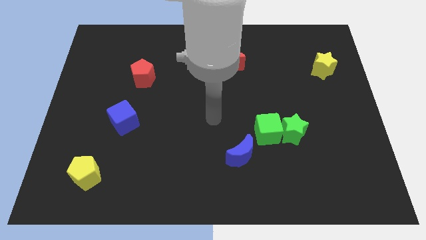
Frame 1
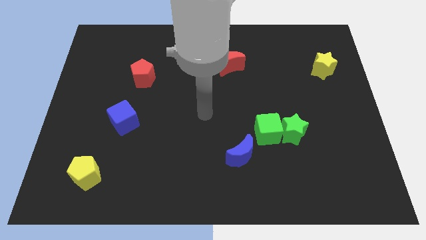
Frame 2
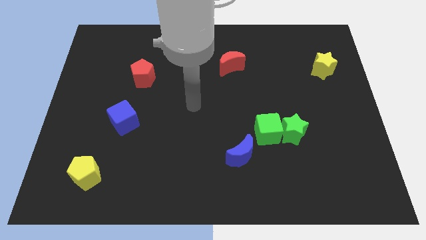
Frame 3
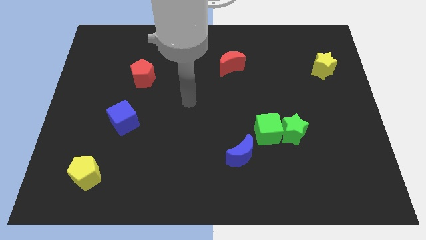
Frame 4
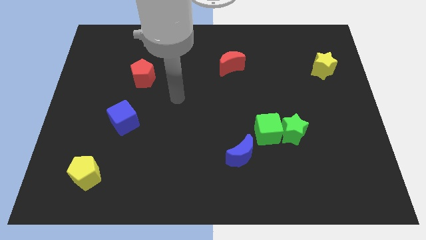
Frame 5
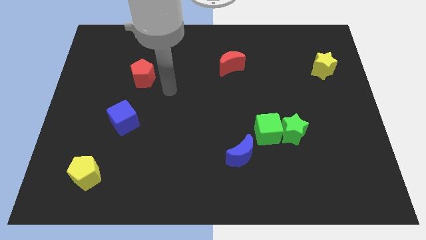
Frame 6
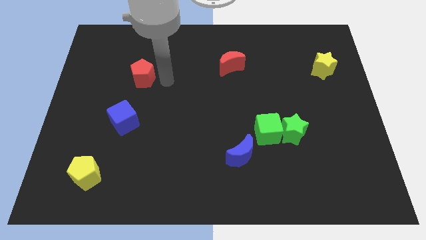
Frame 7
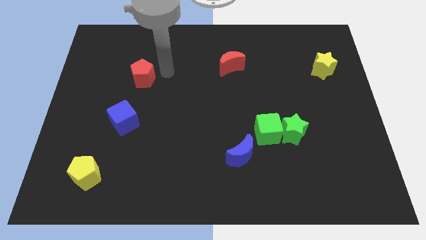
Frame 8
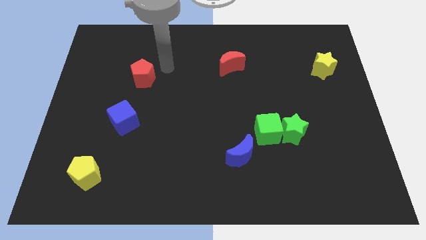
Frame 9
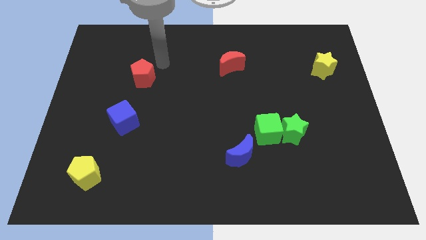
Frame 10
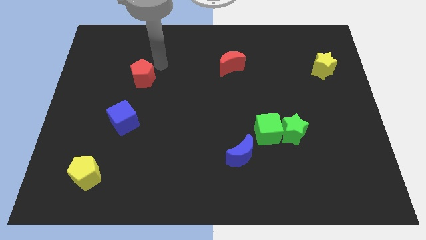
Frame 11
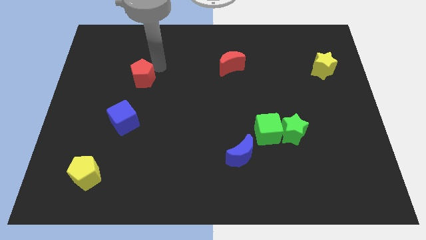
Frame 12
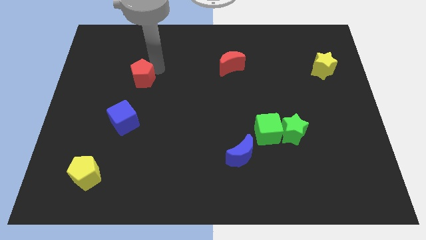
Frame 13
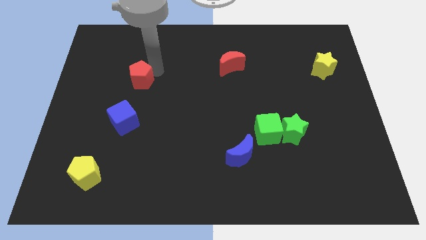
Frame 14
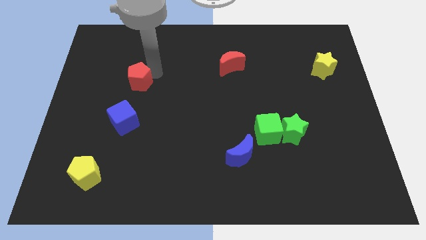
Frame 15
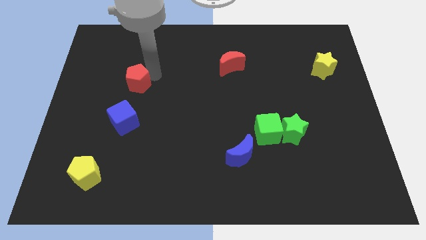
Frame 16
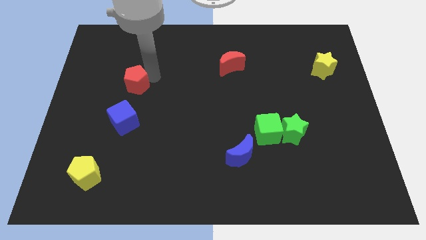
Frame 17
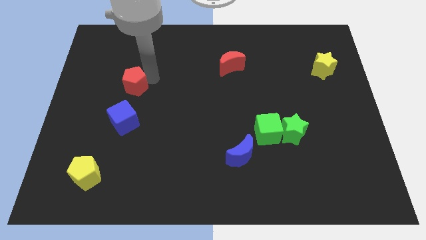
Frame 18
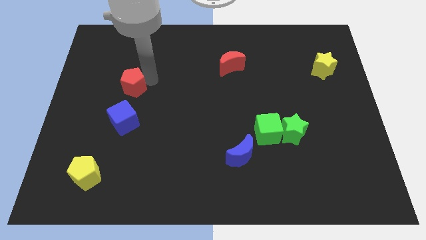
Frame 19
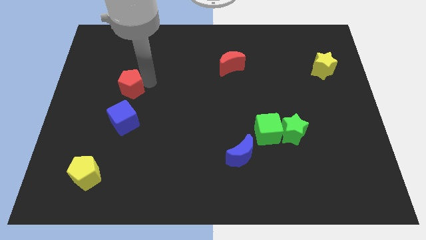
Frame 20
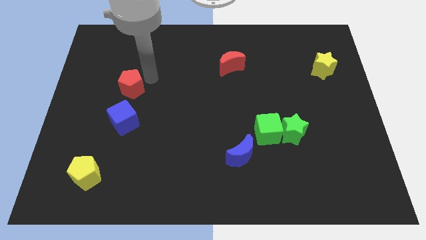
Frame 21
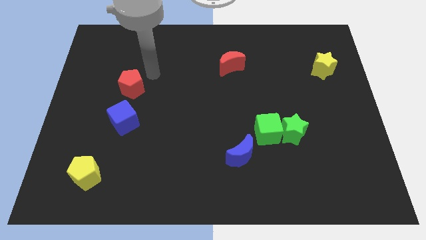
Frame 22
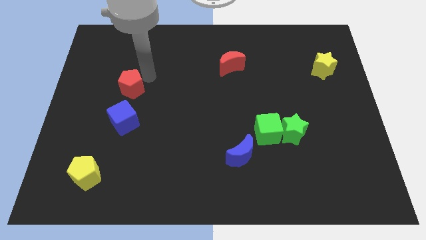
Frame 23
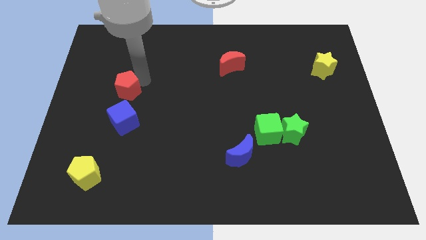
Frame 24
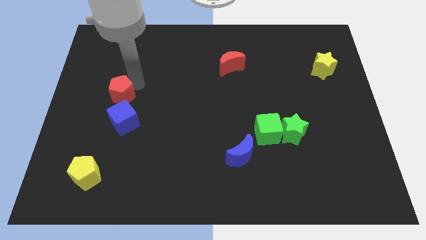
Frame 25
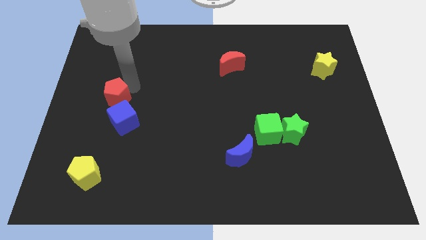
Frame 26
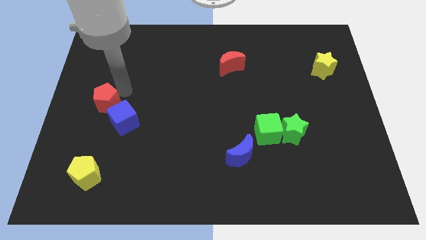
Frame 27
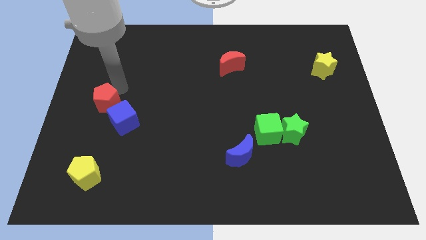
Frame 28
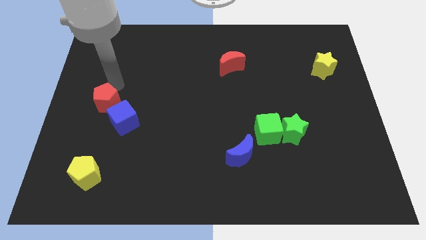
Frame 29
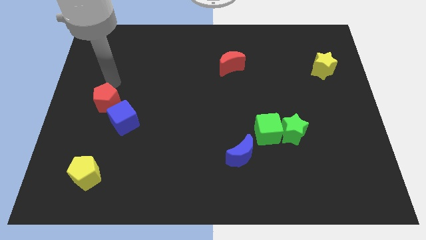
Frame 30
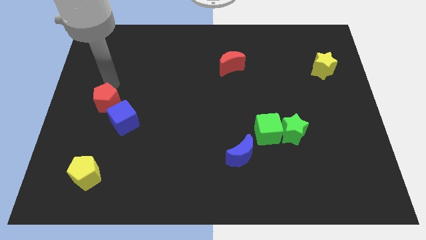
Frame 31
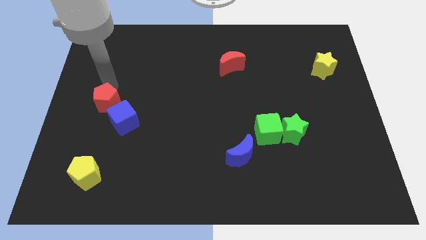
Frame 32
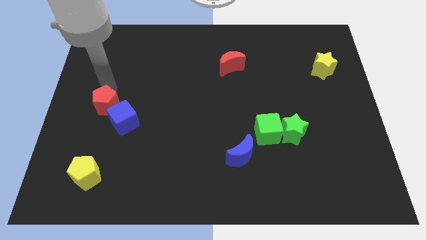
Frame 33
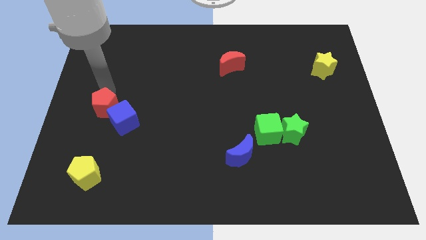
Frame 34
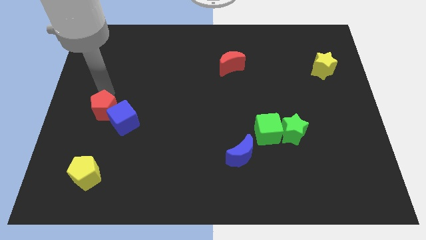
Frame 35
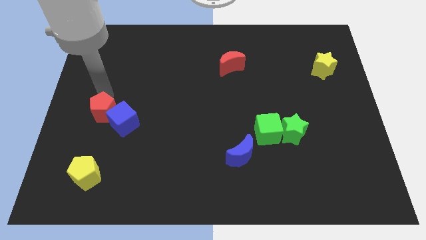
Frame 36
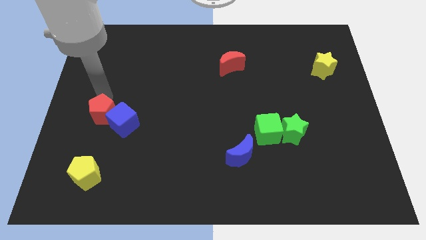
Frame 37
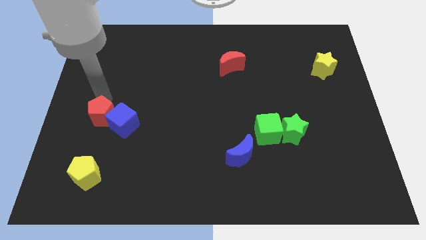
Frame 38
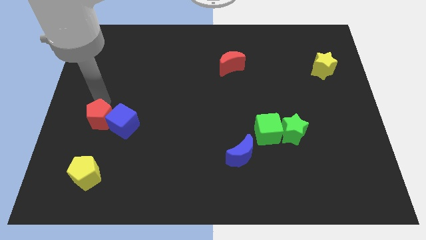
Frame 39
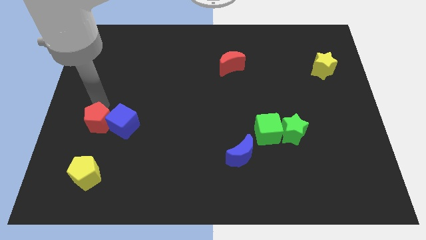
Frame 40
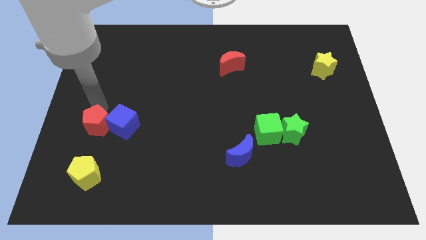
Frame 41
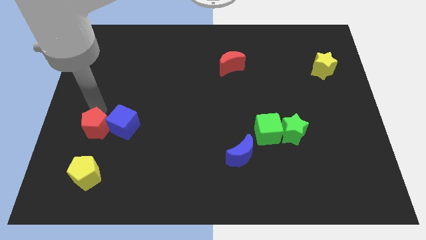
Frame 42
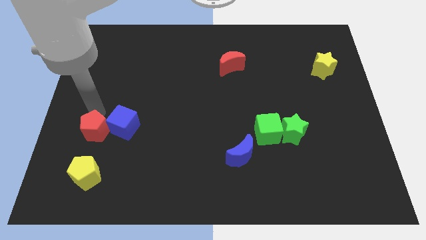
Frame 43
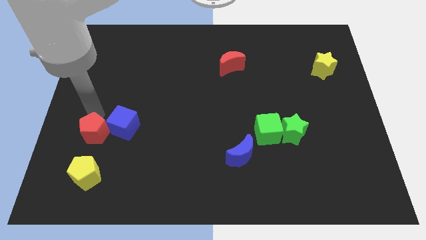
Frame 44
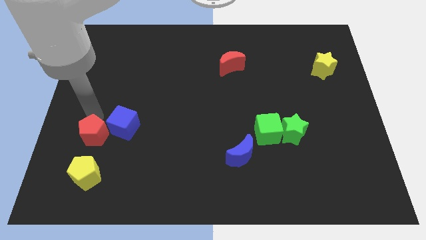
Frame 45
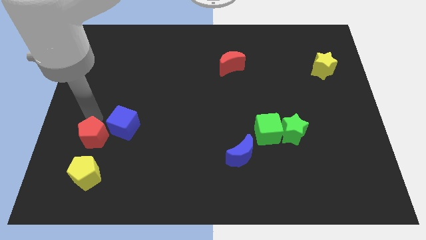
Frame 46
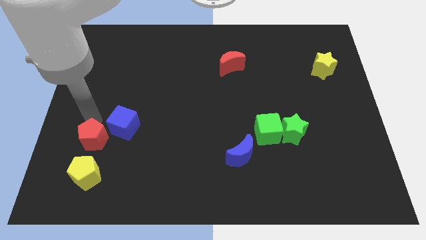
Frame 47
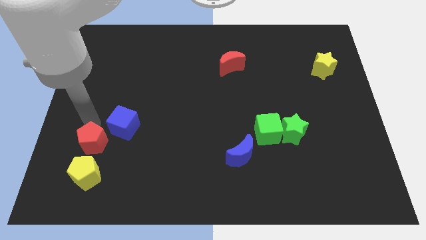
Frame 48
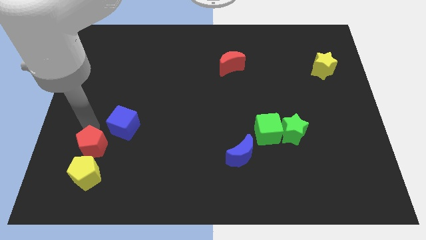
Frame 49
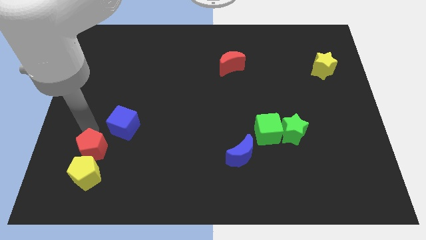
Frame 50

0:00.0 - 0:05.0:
slide the red pentagon towards the yellow pentagon

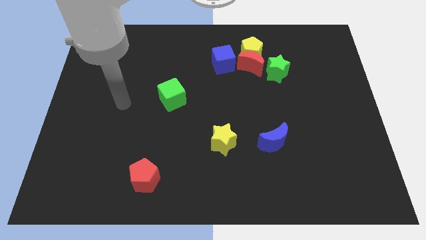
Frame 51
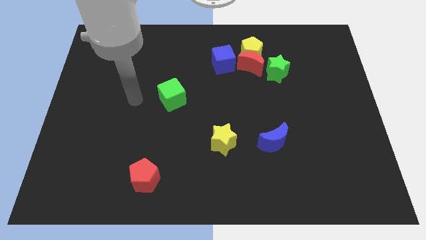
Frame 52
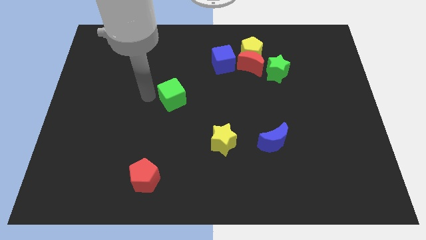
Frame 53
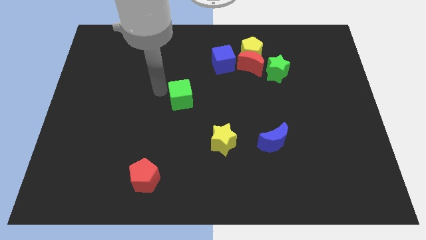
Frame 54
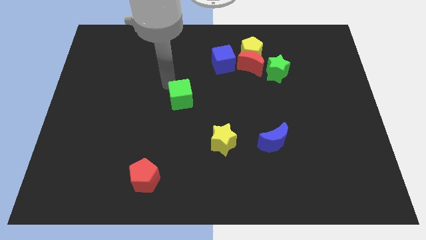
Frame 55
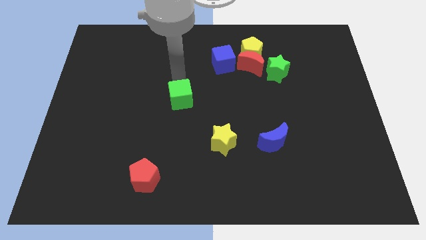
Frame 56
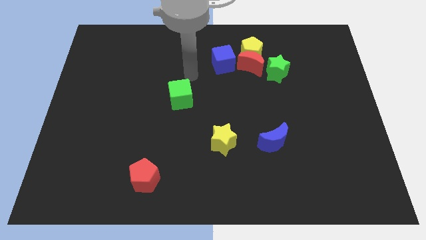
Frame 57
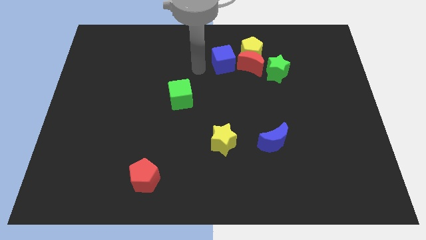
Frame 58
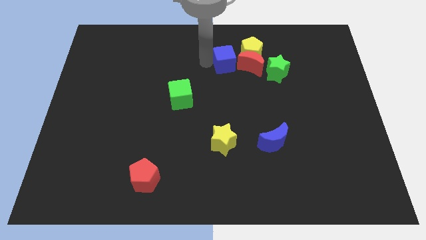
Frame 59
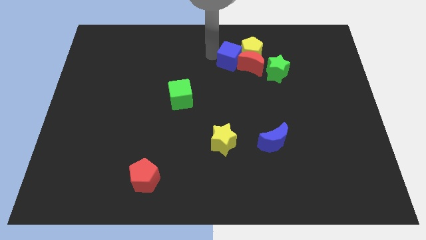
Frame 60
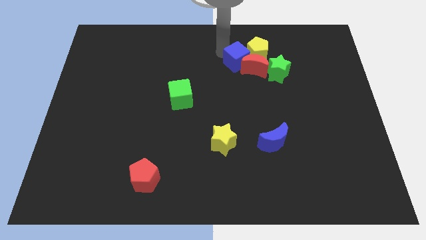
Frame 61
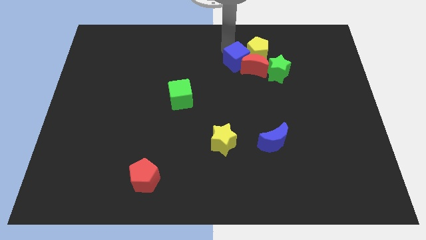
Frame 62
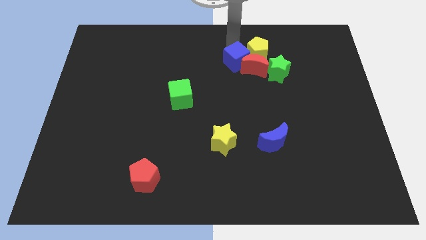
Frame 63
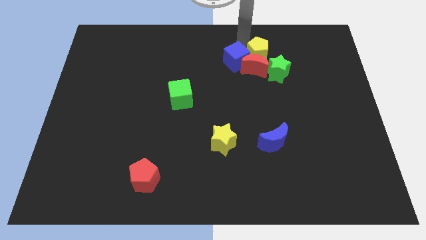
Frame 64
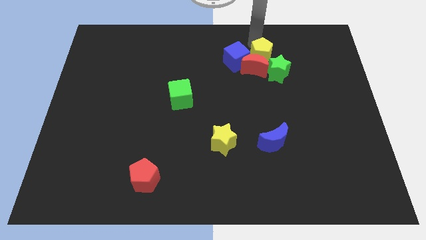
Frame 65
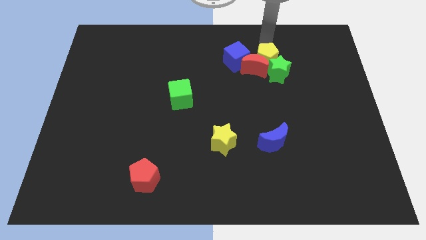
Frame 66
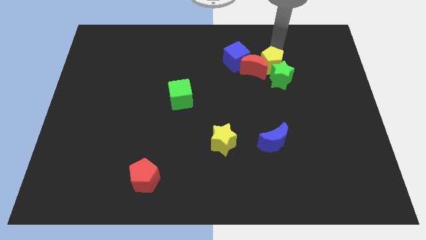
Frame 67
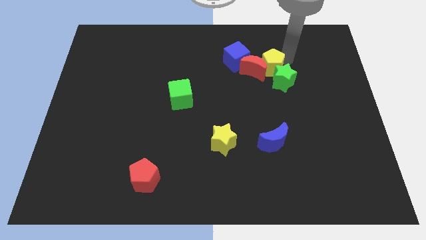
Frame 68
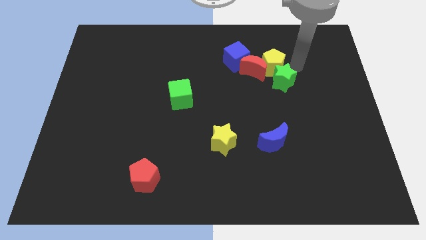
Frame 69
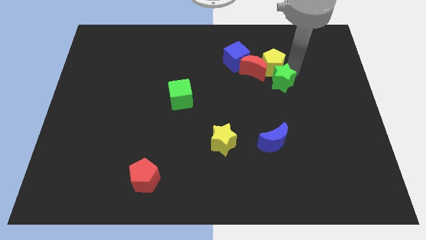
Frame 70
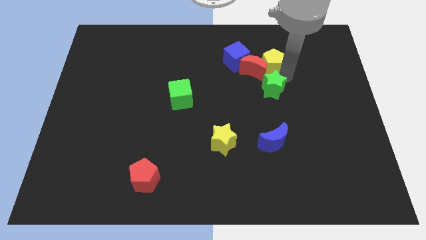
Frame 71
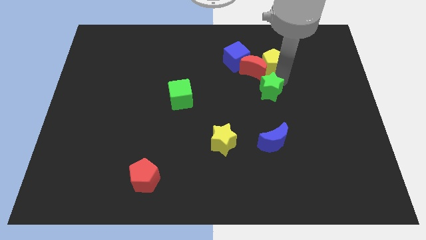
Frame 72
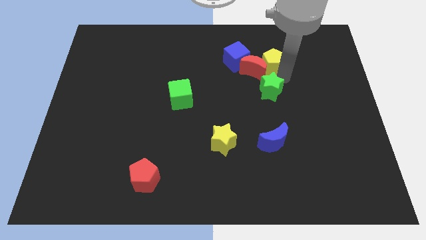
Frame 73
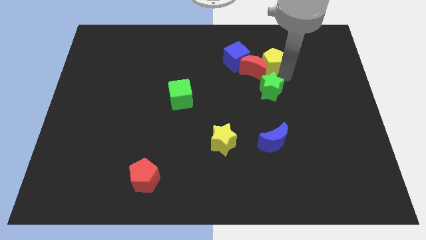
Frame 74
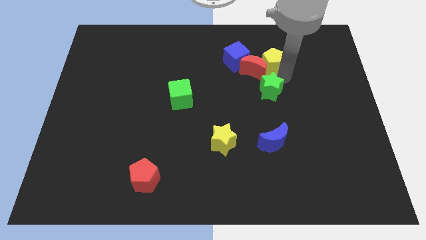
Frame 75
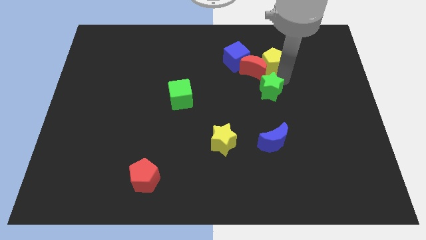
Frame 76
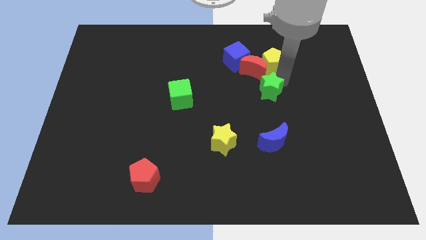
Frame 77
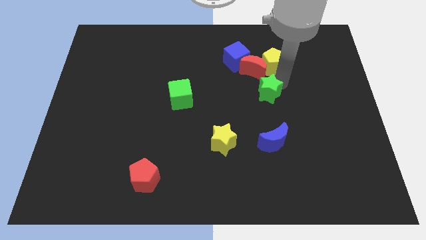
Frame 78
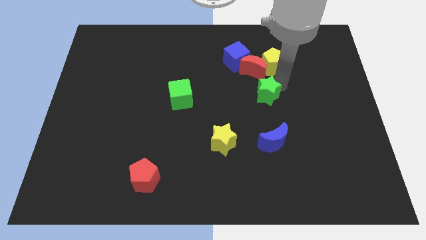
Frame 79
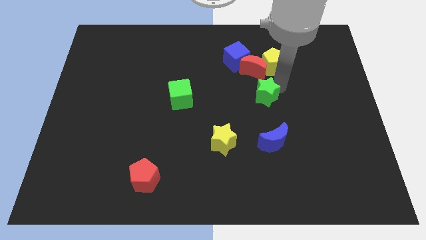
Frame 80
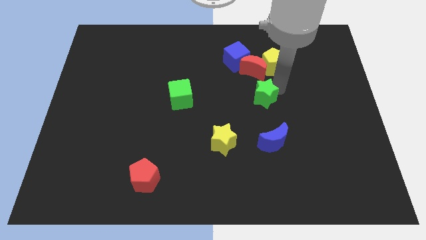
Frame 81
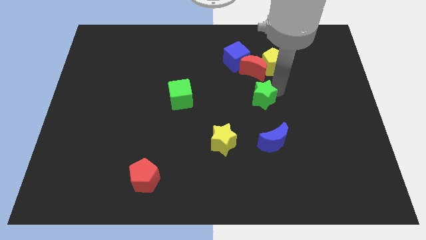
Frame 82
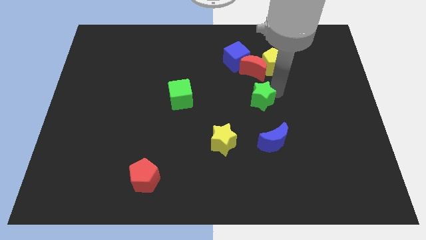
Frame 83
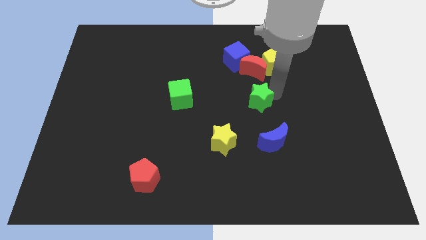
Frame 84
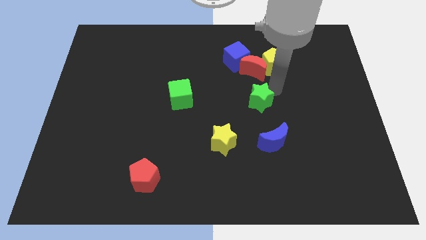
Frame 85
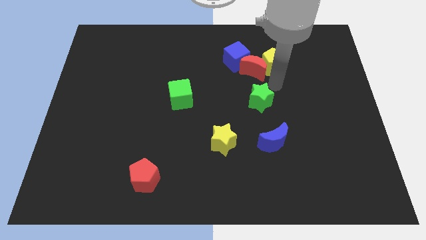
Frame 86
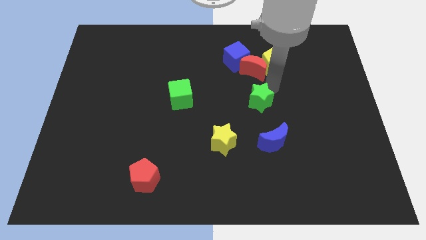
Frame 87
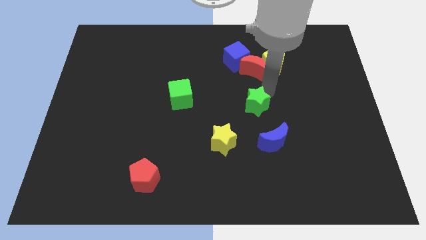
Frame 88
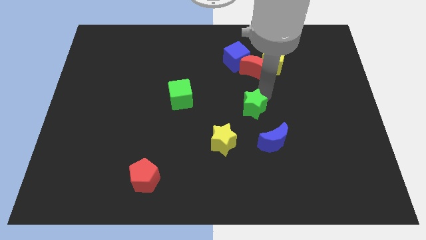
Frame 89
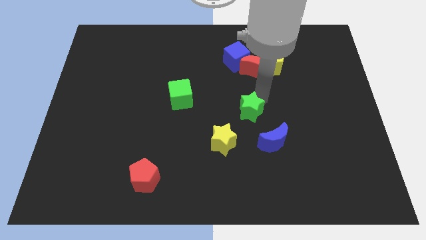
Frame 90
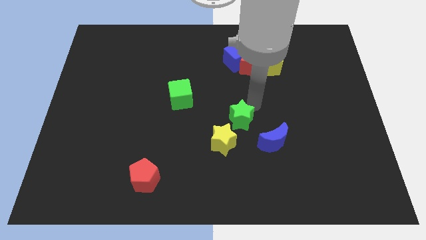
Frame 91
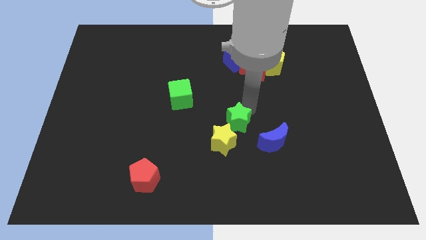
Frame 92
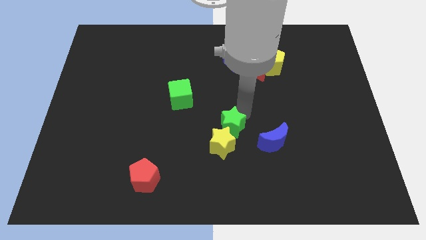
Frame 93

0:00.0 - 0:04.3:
move the green star next to the yellow star
